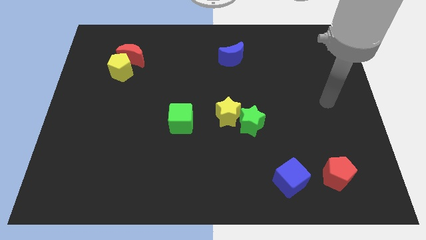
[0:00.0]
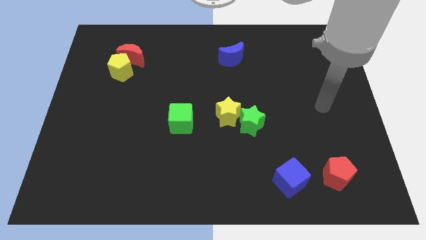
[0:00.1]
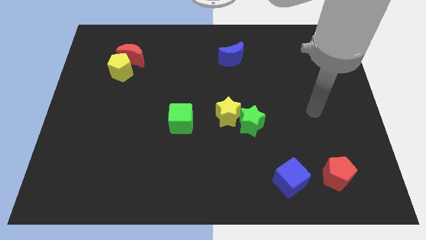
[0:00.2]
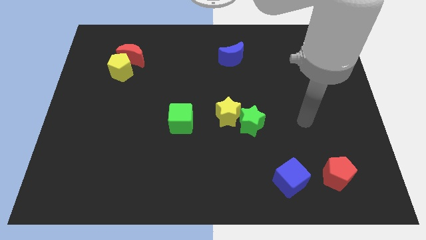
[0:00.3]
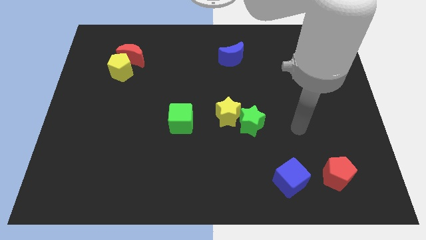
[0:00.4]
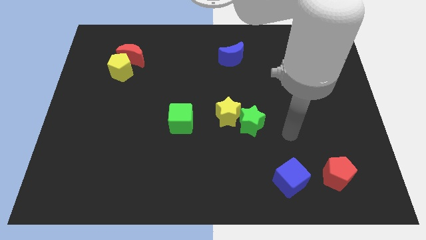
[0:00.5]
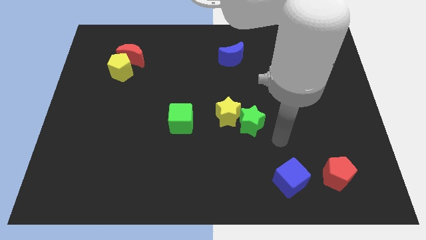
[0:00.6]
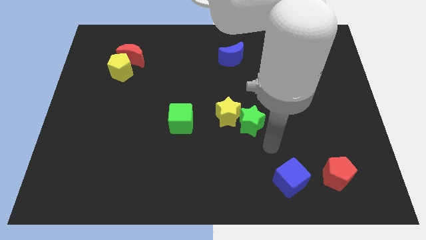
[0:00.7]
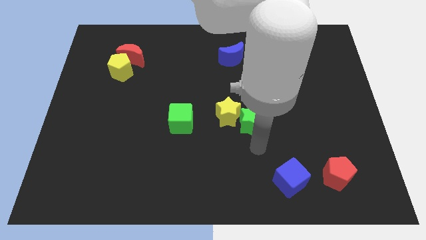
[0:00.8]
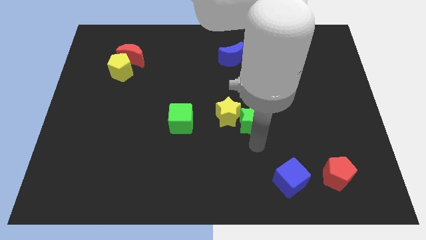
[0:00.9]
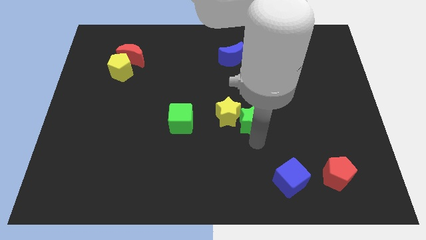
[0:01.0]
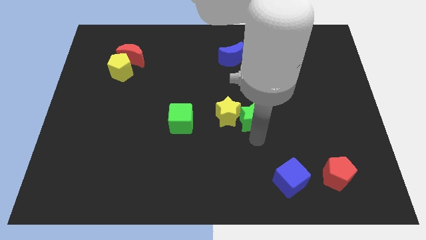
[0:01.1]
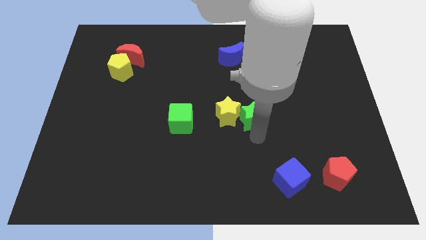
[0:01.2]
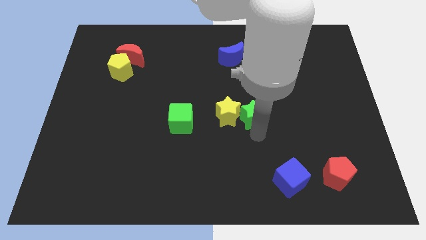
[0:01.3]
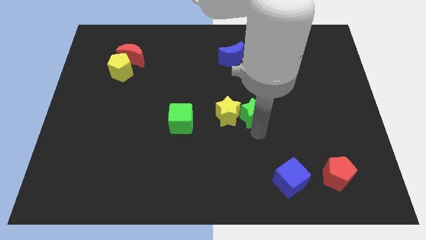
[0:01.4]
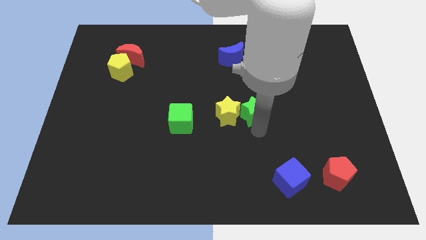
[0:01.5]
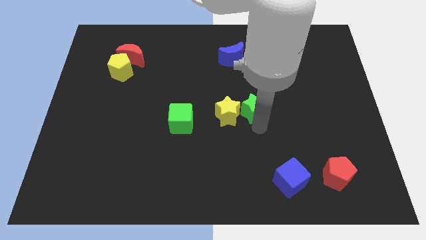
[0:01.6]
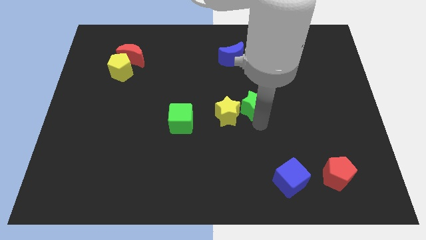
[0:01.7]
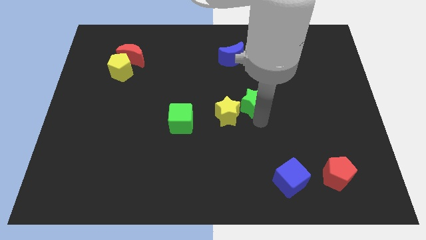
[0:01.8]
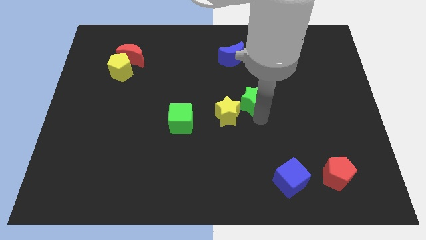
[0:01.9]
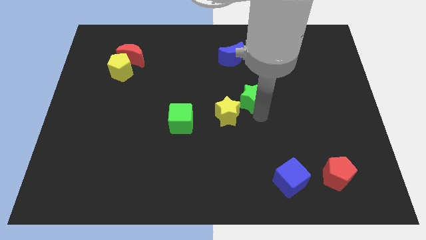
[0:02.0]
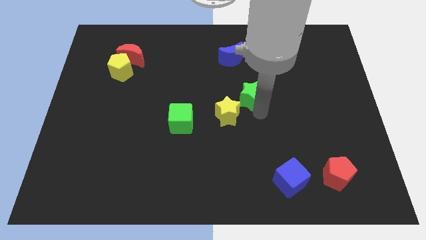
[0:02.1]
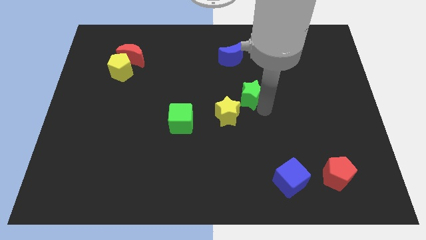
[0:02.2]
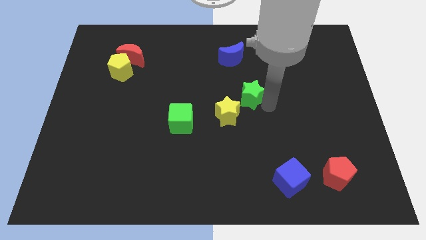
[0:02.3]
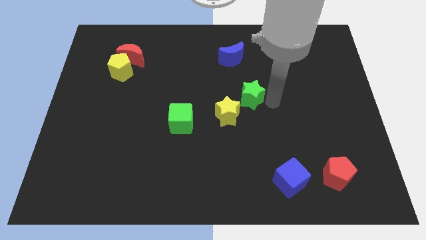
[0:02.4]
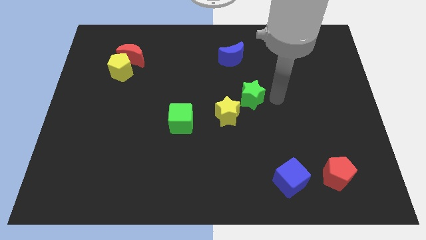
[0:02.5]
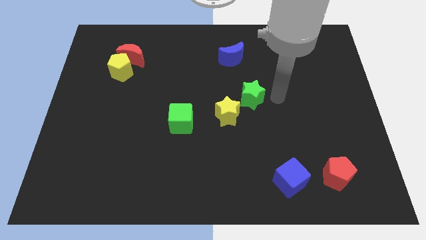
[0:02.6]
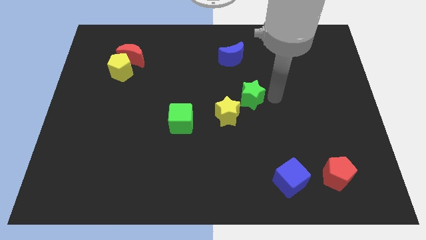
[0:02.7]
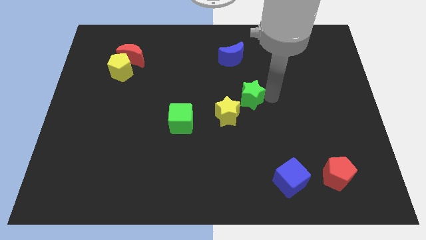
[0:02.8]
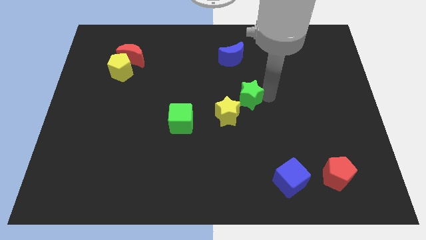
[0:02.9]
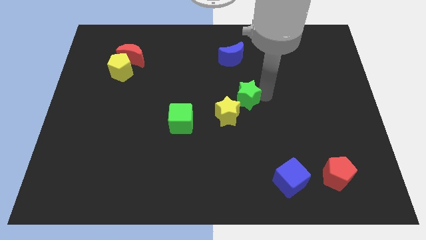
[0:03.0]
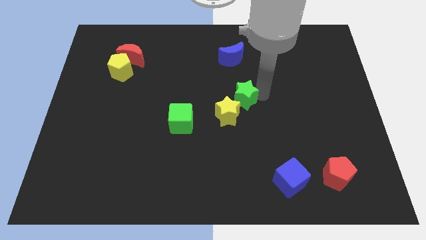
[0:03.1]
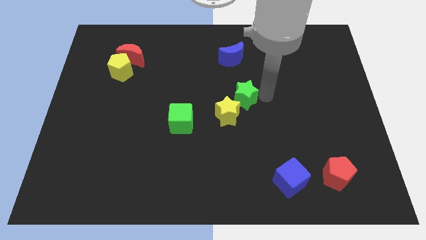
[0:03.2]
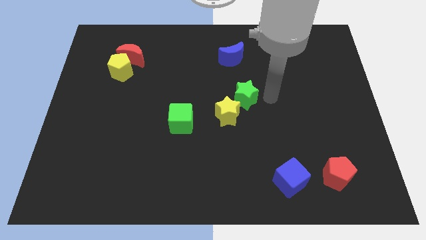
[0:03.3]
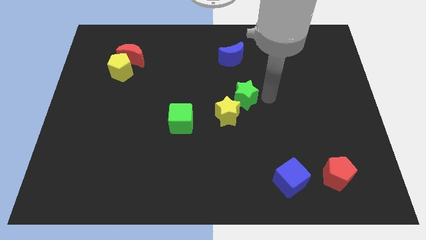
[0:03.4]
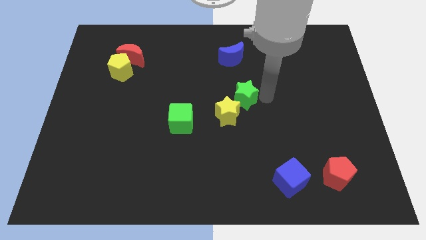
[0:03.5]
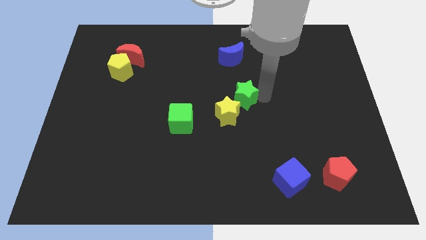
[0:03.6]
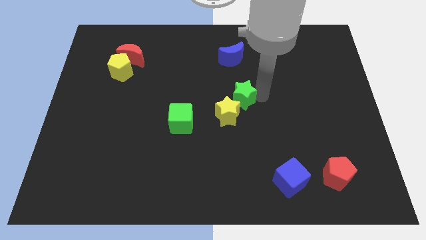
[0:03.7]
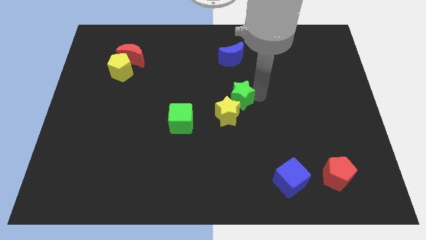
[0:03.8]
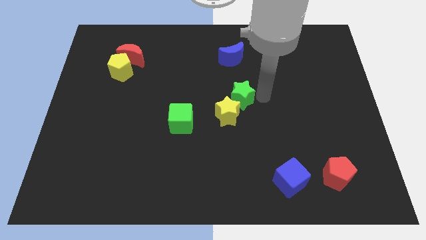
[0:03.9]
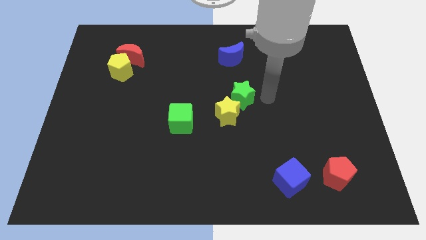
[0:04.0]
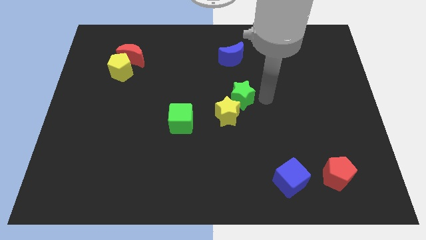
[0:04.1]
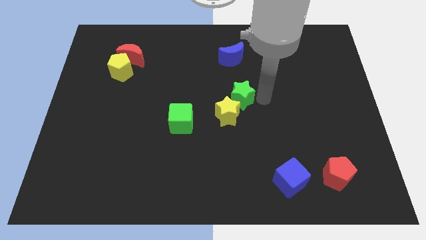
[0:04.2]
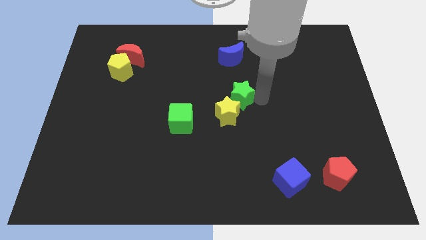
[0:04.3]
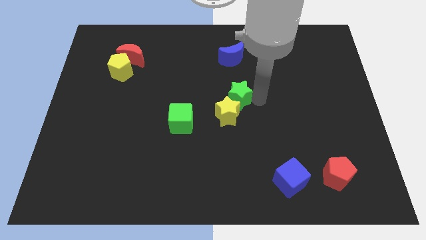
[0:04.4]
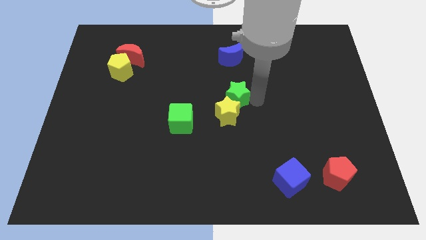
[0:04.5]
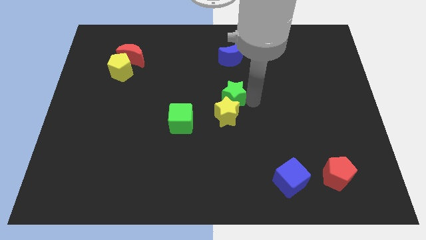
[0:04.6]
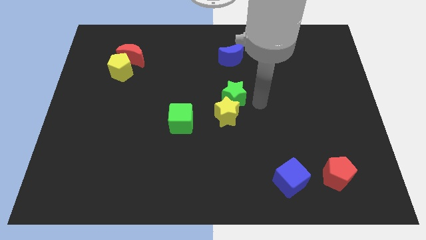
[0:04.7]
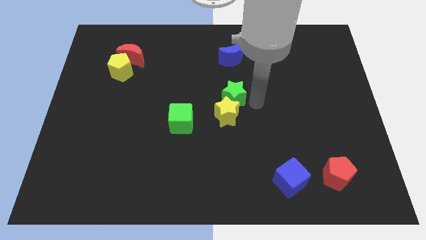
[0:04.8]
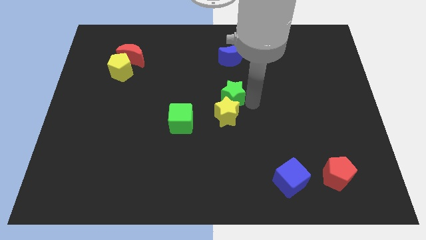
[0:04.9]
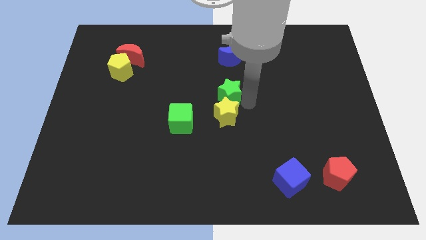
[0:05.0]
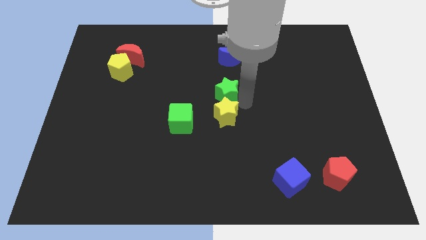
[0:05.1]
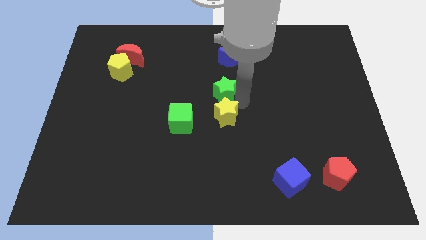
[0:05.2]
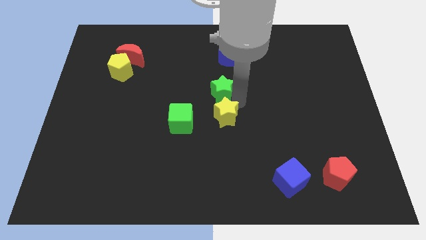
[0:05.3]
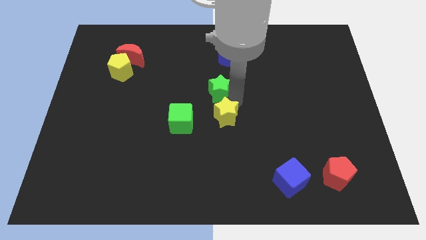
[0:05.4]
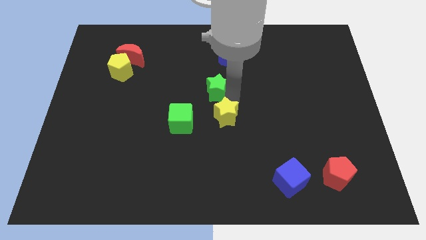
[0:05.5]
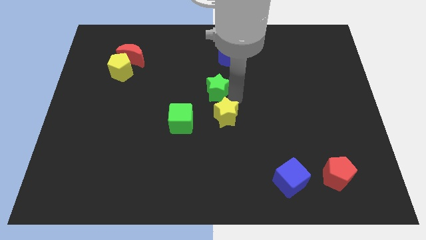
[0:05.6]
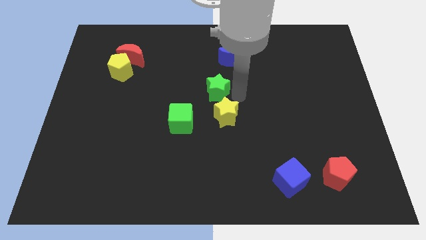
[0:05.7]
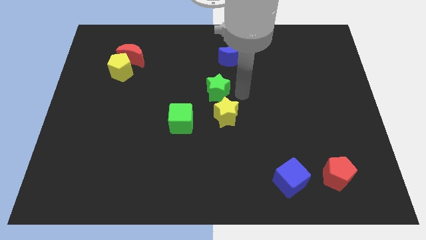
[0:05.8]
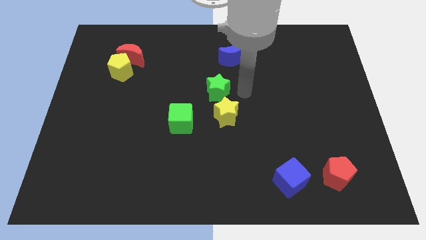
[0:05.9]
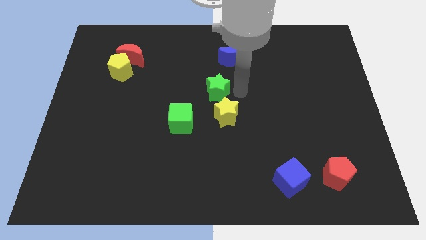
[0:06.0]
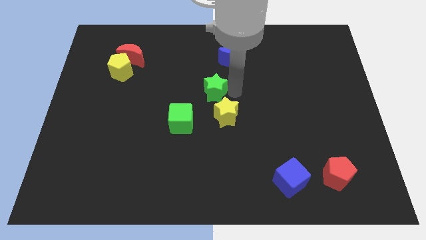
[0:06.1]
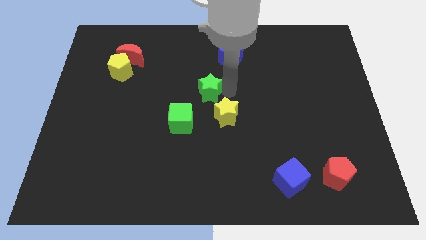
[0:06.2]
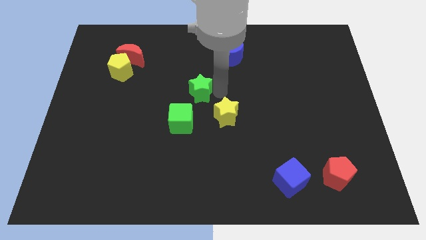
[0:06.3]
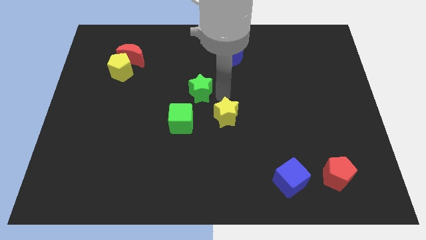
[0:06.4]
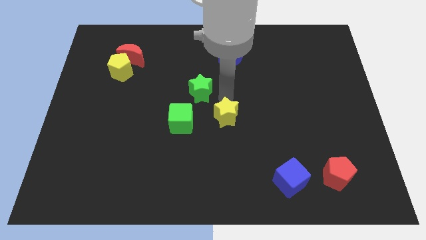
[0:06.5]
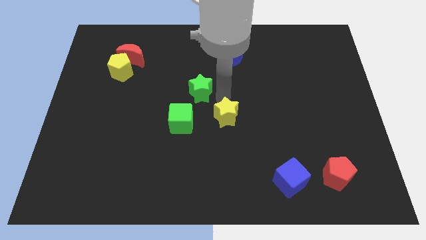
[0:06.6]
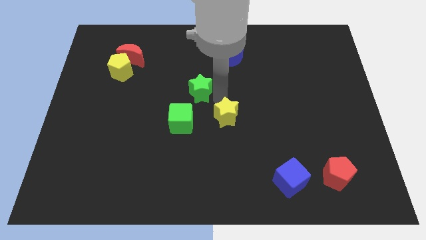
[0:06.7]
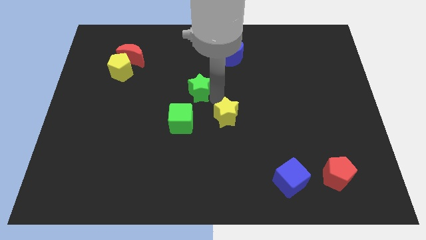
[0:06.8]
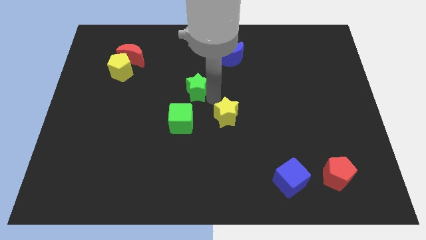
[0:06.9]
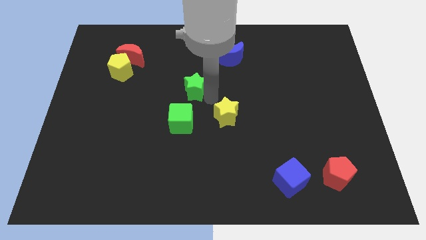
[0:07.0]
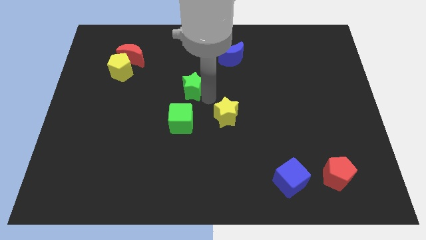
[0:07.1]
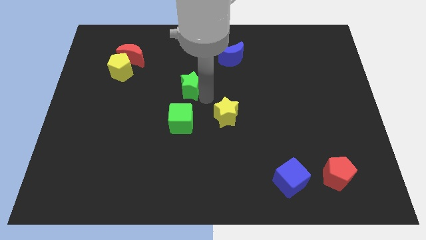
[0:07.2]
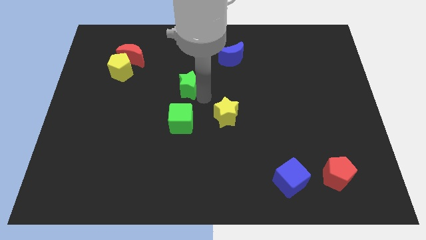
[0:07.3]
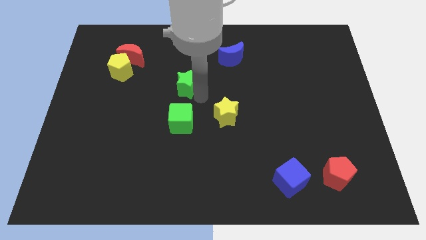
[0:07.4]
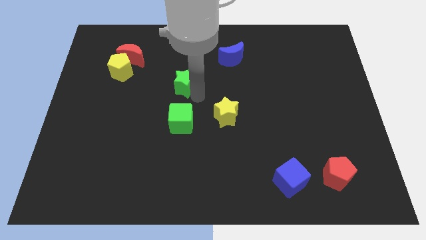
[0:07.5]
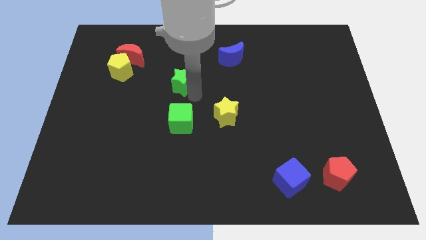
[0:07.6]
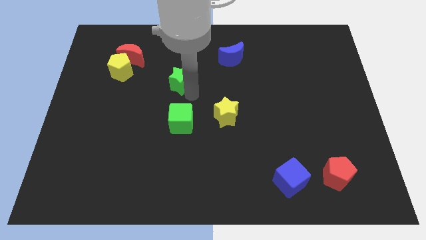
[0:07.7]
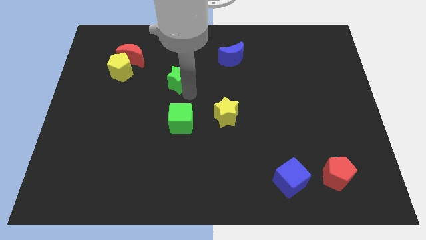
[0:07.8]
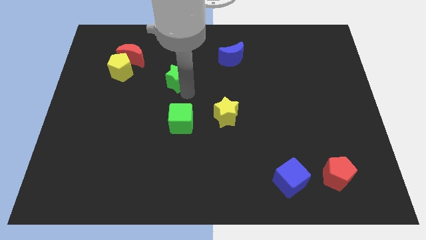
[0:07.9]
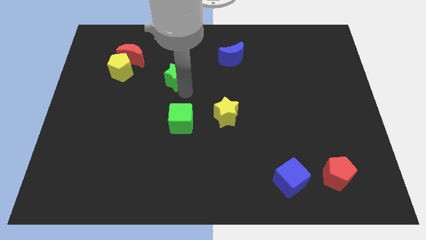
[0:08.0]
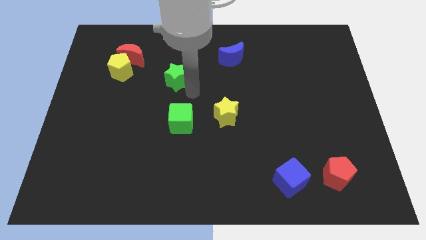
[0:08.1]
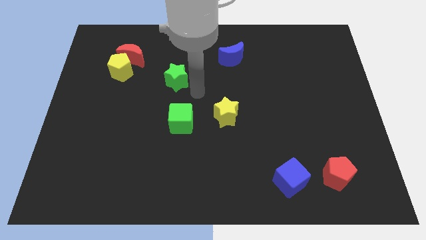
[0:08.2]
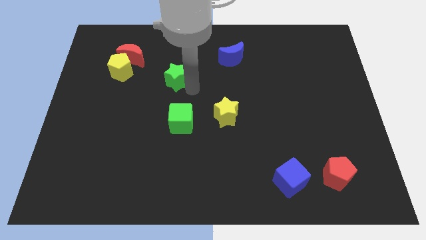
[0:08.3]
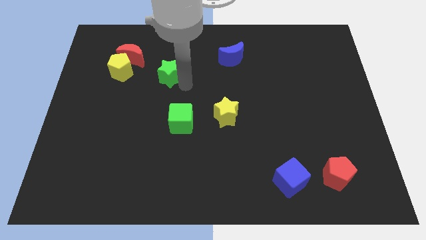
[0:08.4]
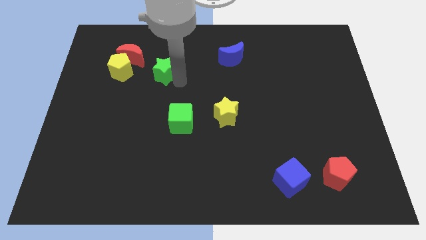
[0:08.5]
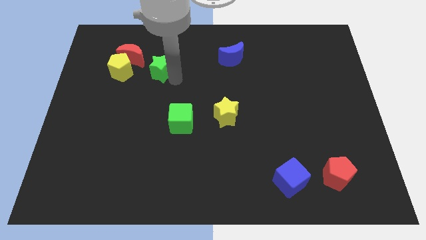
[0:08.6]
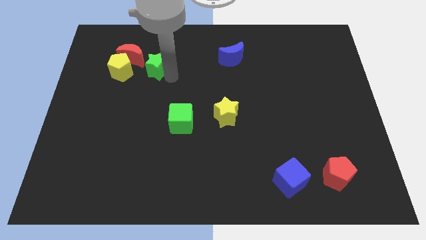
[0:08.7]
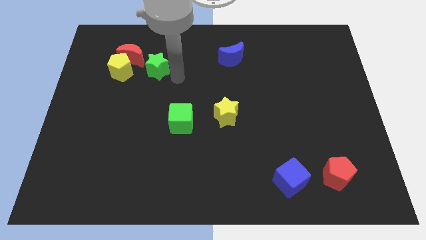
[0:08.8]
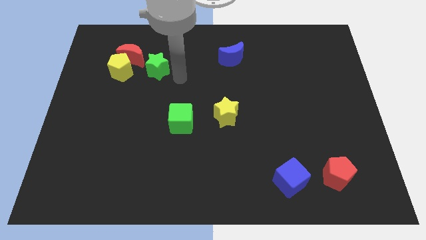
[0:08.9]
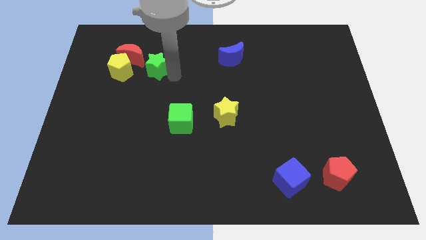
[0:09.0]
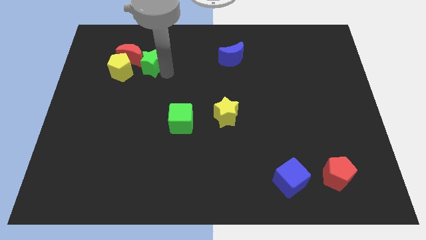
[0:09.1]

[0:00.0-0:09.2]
push the green star next to the red moon
